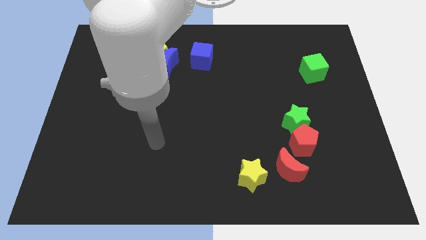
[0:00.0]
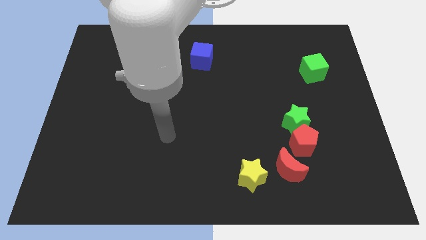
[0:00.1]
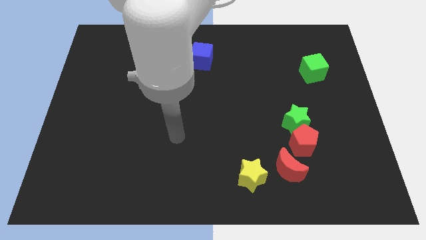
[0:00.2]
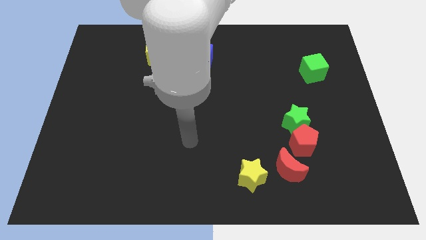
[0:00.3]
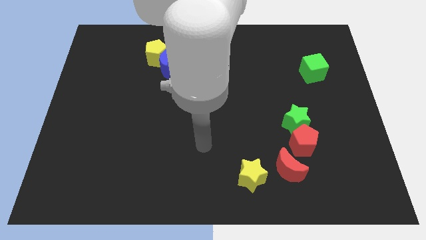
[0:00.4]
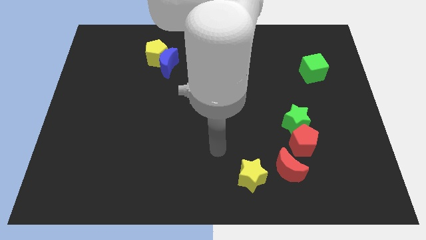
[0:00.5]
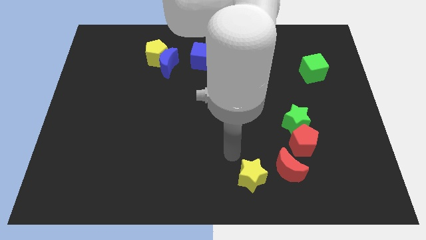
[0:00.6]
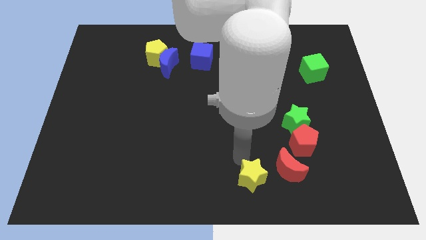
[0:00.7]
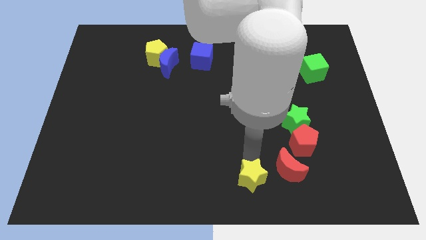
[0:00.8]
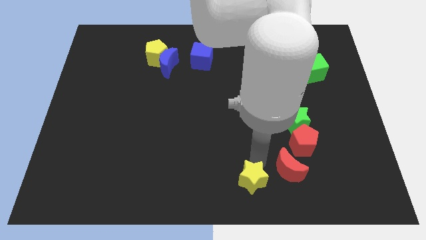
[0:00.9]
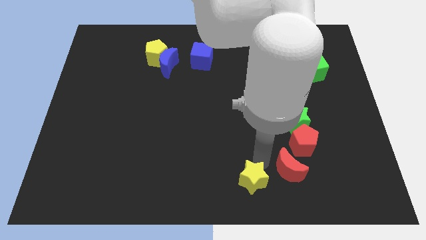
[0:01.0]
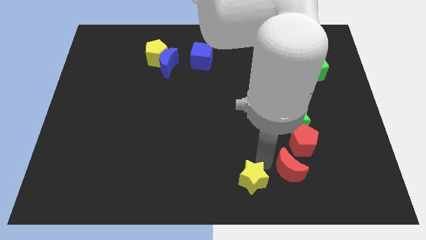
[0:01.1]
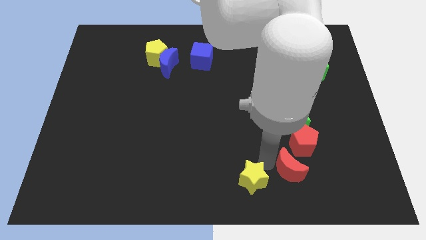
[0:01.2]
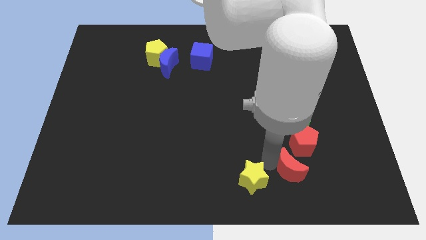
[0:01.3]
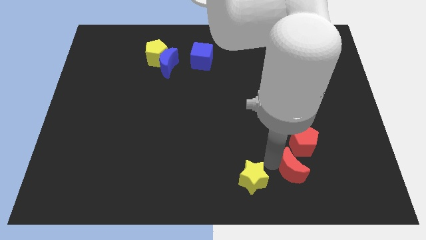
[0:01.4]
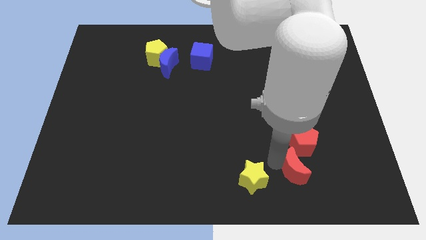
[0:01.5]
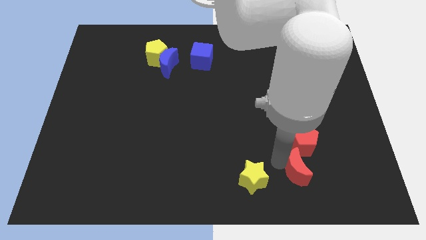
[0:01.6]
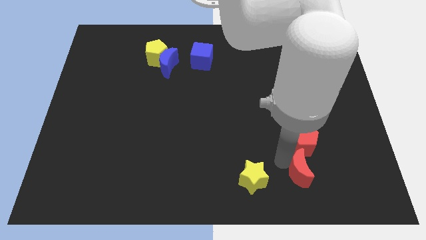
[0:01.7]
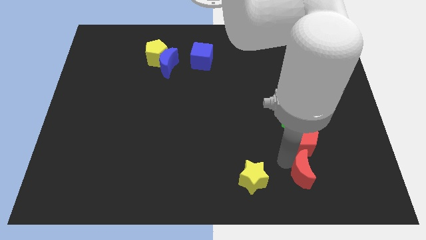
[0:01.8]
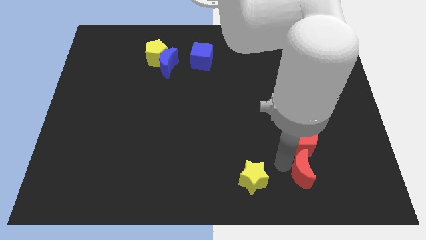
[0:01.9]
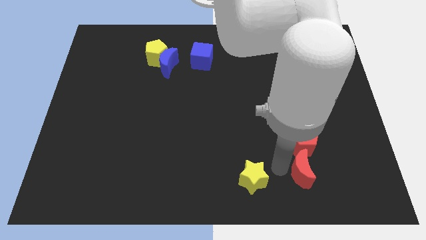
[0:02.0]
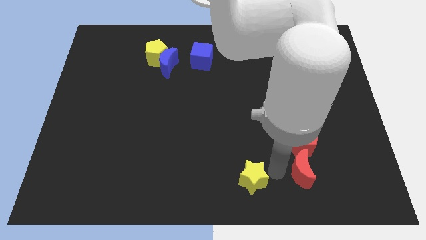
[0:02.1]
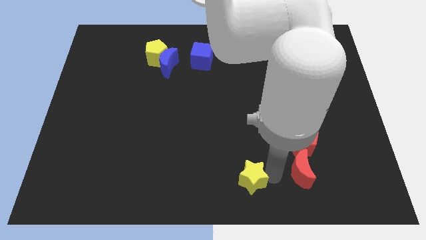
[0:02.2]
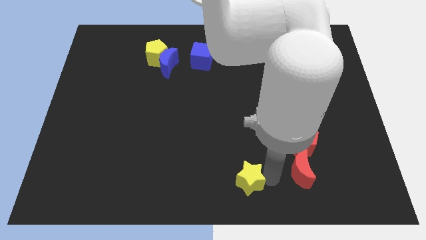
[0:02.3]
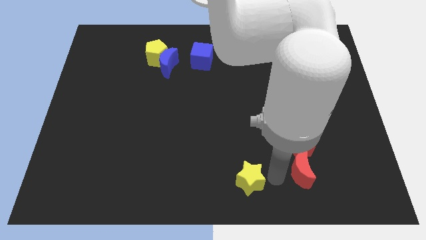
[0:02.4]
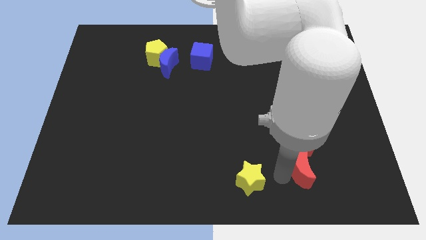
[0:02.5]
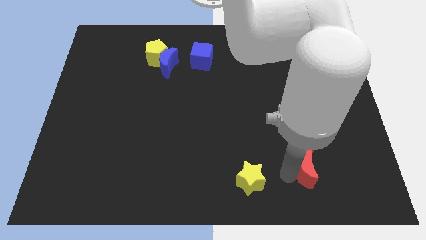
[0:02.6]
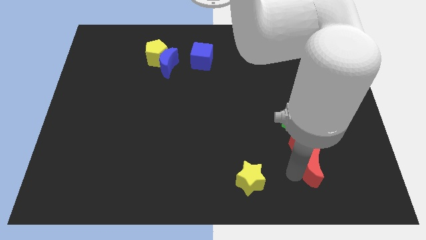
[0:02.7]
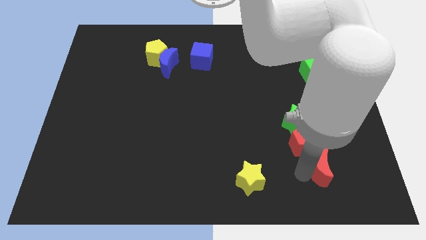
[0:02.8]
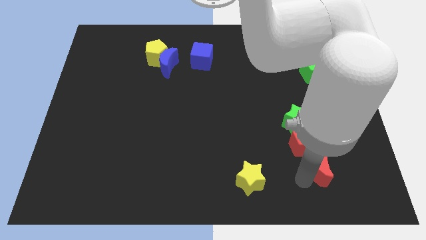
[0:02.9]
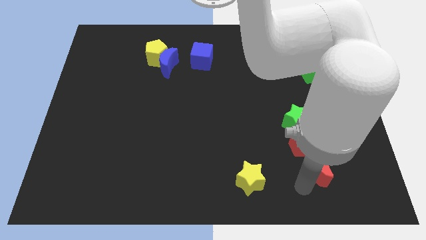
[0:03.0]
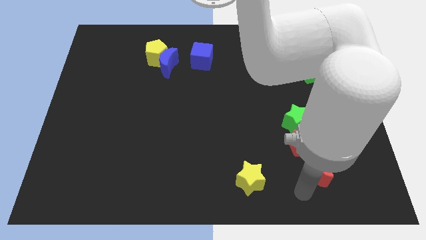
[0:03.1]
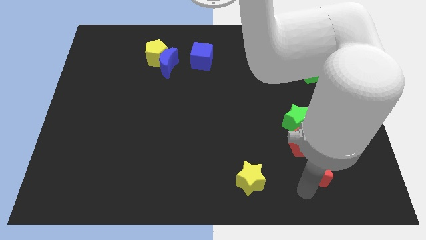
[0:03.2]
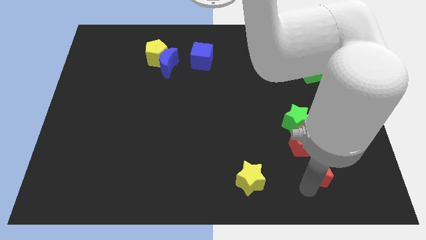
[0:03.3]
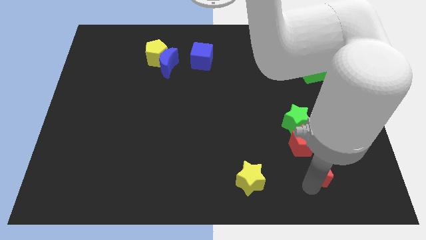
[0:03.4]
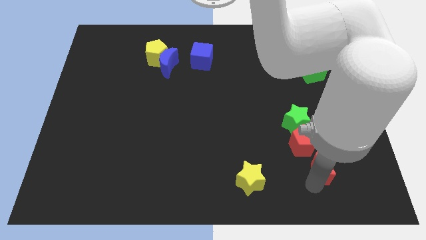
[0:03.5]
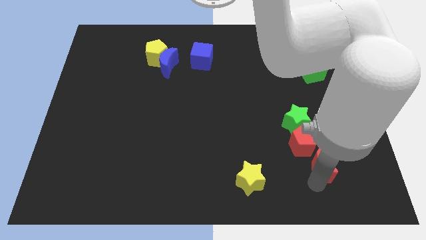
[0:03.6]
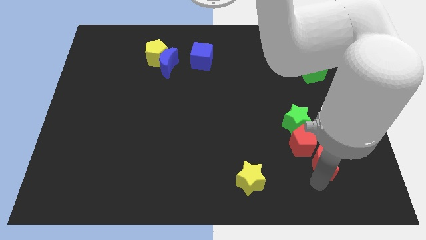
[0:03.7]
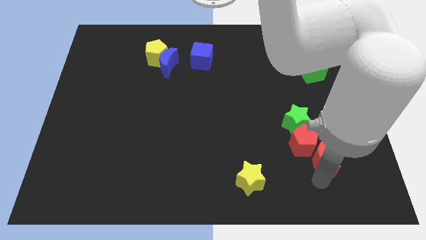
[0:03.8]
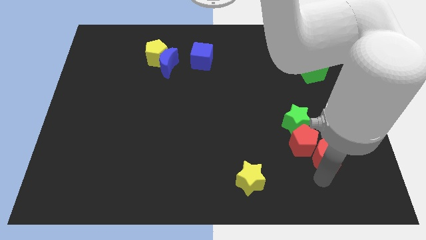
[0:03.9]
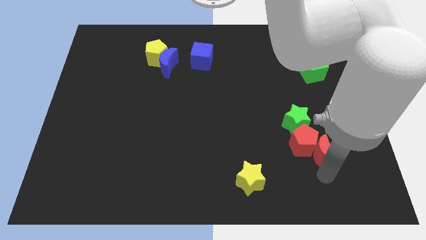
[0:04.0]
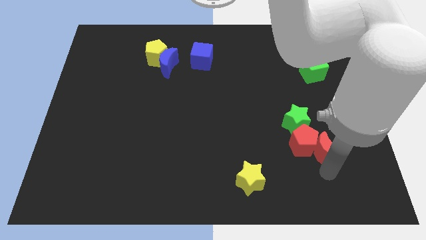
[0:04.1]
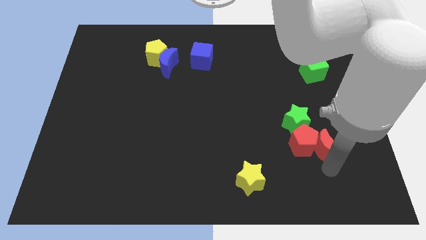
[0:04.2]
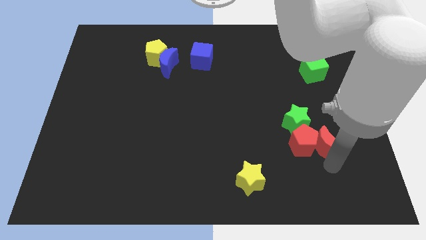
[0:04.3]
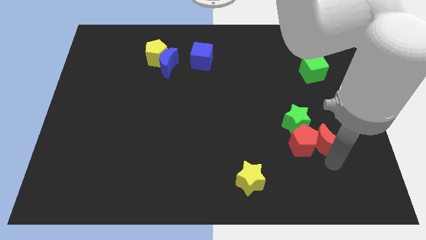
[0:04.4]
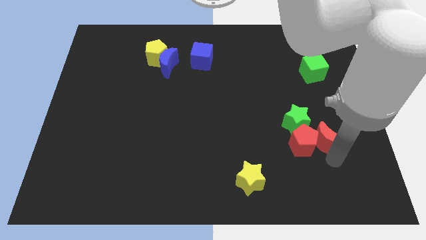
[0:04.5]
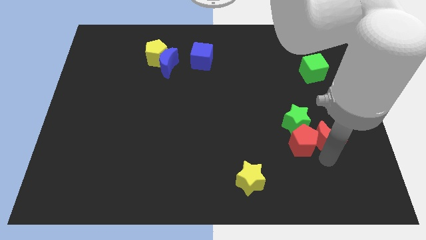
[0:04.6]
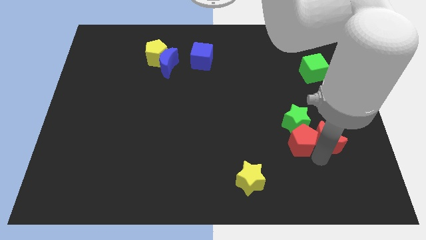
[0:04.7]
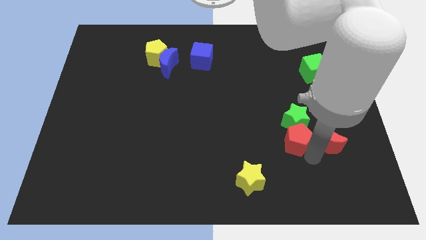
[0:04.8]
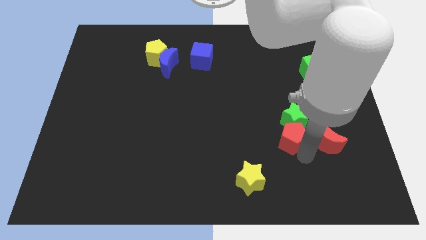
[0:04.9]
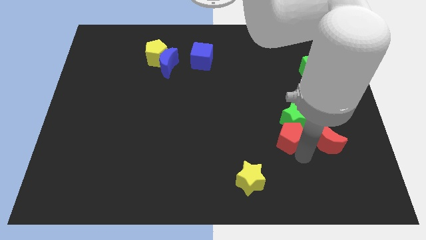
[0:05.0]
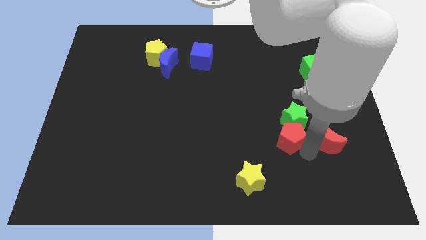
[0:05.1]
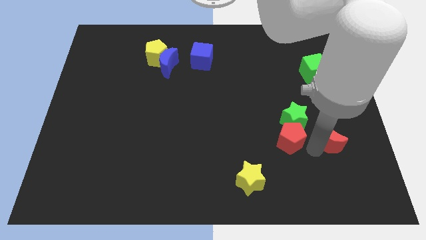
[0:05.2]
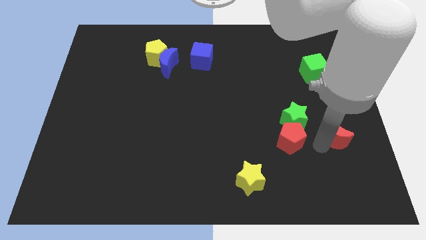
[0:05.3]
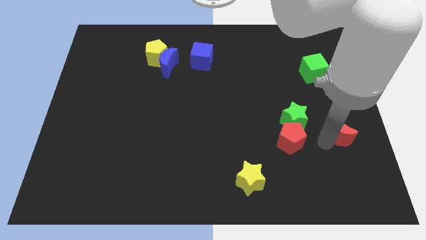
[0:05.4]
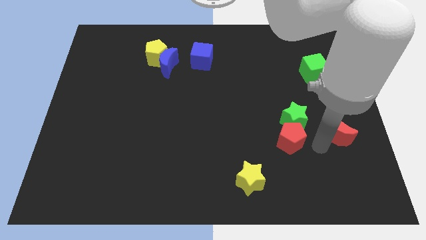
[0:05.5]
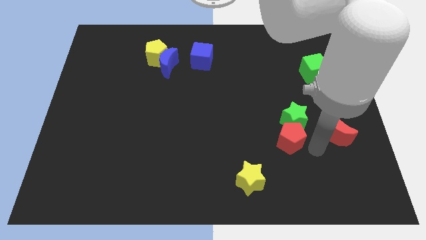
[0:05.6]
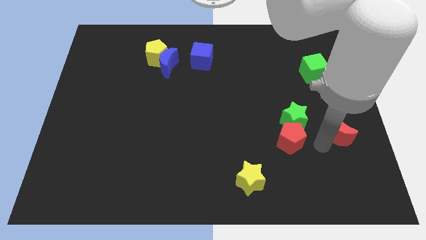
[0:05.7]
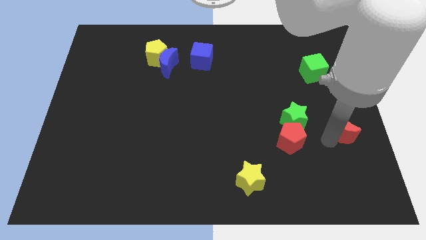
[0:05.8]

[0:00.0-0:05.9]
put the red moon to the center right

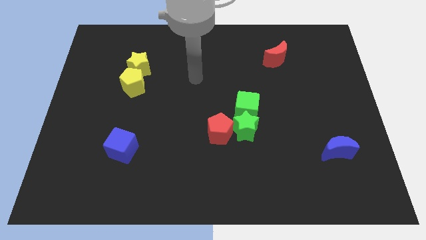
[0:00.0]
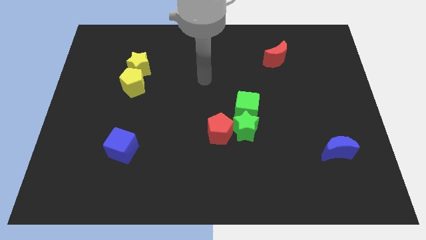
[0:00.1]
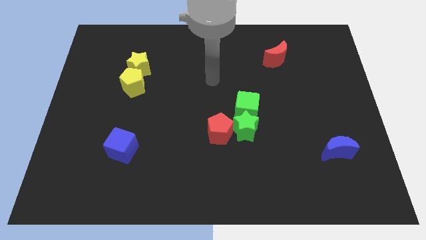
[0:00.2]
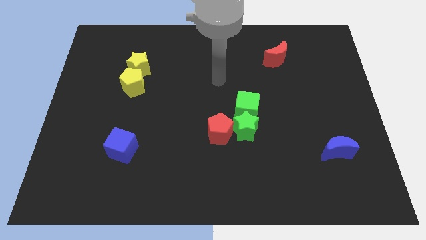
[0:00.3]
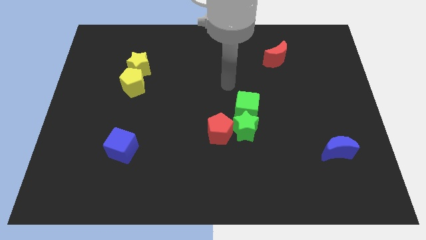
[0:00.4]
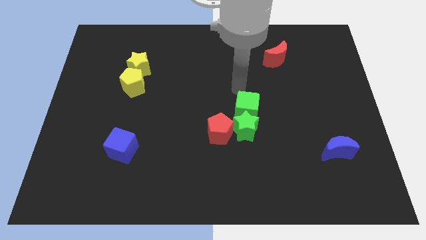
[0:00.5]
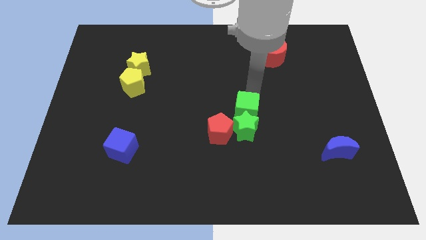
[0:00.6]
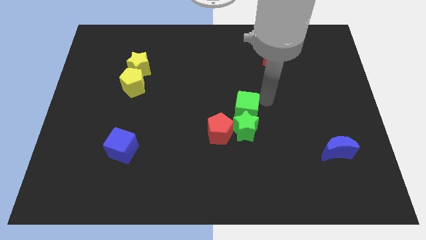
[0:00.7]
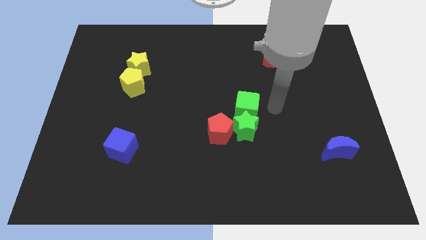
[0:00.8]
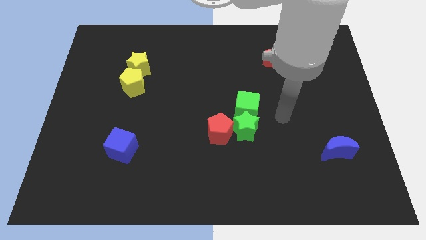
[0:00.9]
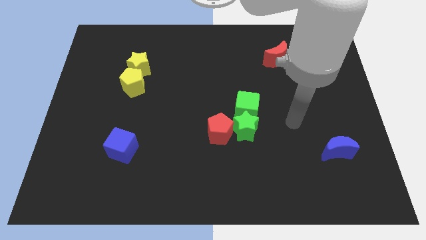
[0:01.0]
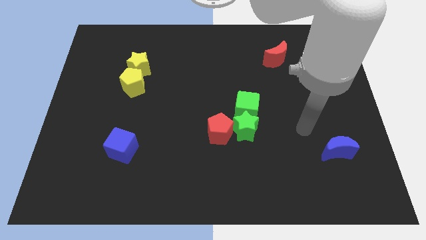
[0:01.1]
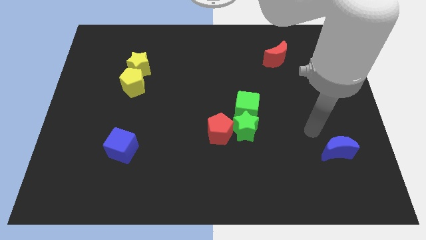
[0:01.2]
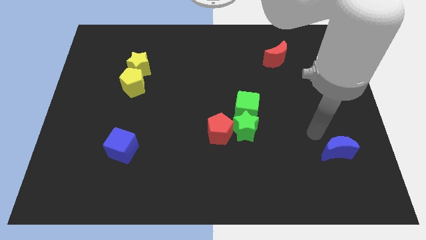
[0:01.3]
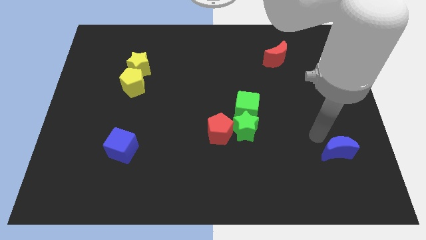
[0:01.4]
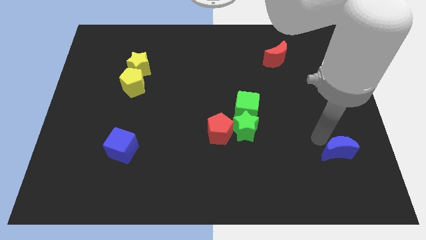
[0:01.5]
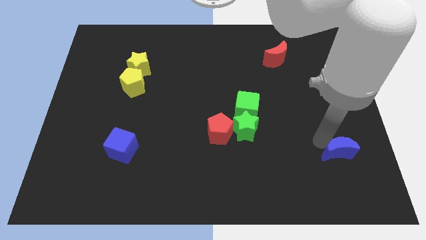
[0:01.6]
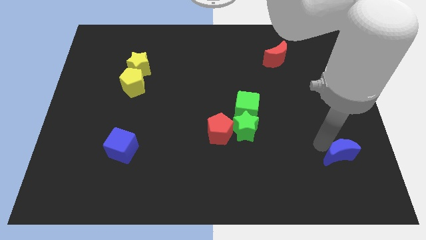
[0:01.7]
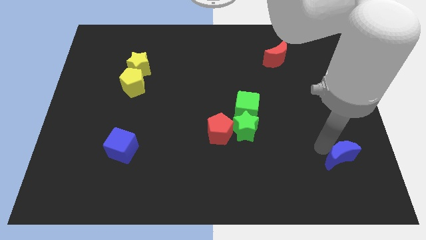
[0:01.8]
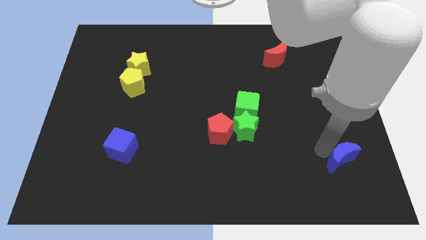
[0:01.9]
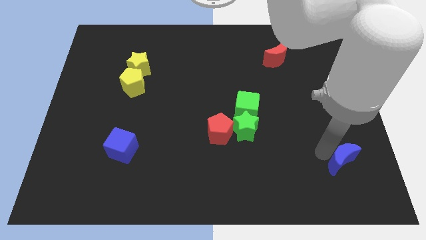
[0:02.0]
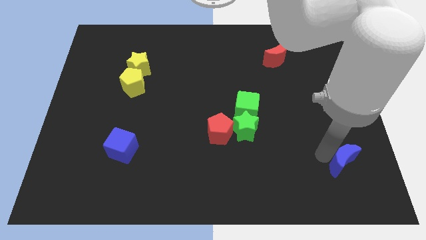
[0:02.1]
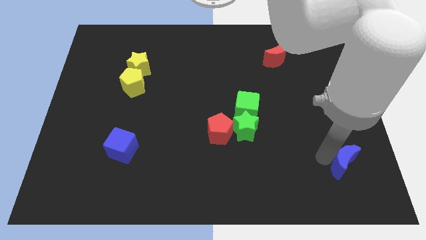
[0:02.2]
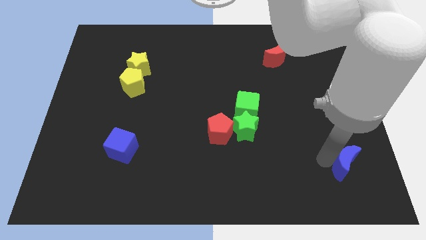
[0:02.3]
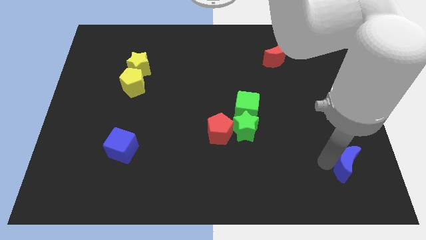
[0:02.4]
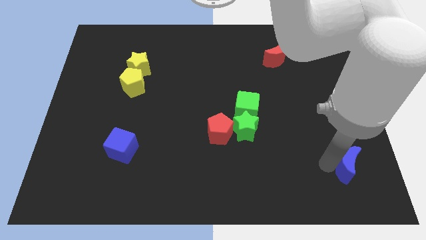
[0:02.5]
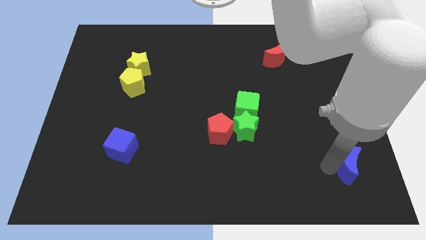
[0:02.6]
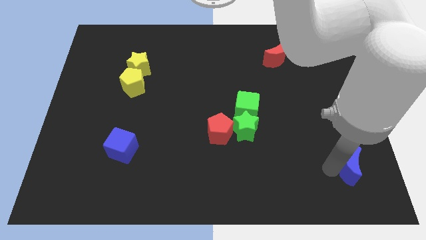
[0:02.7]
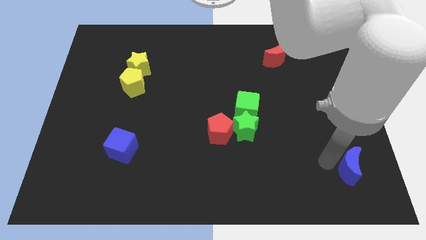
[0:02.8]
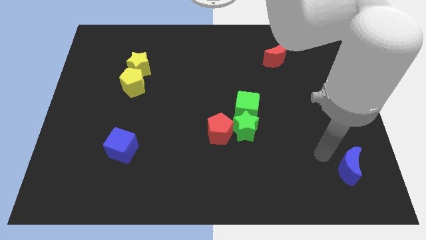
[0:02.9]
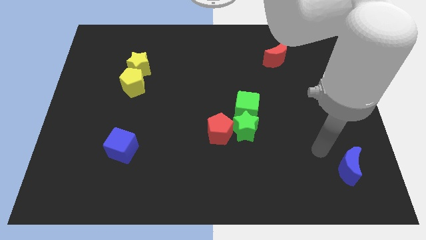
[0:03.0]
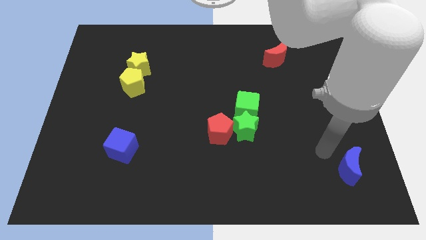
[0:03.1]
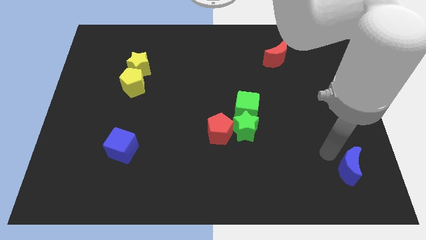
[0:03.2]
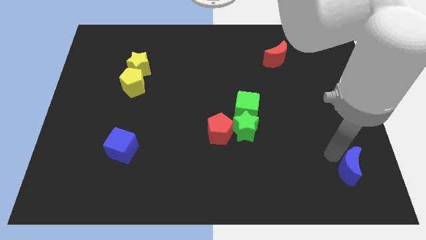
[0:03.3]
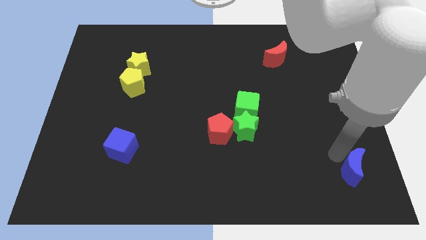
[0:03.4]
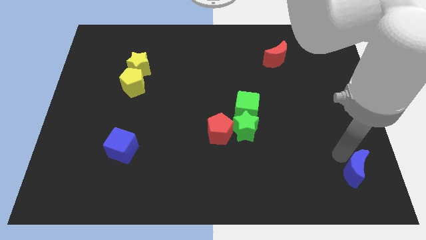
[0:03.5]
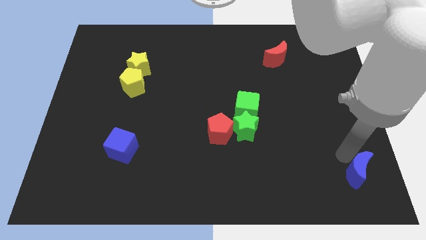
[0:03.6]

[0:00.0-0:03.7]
move the blue moon to the lower right corner
